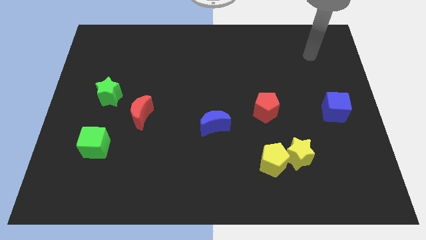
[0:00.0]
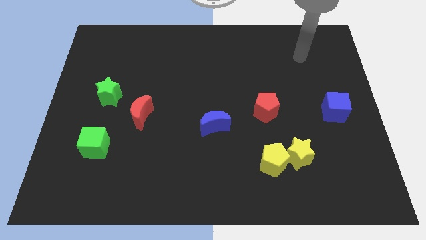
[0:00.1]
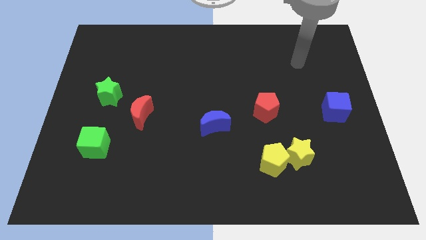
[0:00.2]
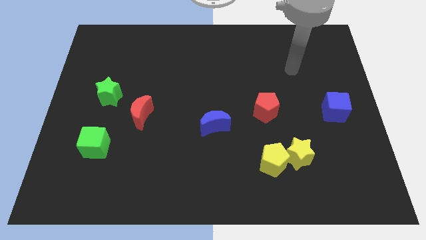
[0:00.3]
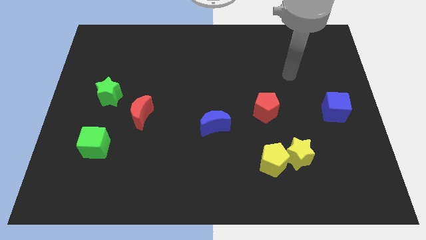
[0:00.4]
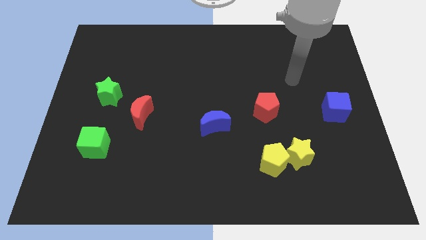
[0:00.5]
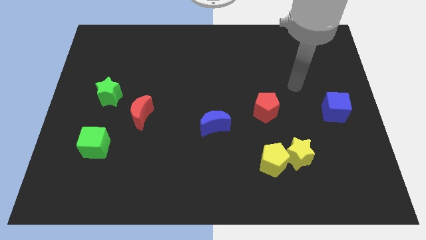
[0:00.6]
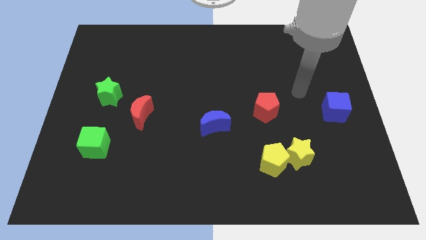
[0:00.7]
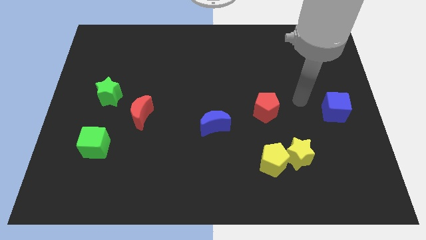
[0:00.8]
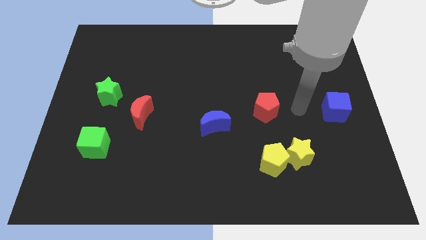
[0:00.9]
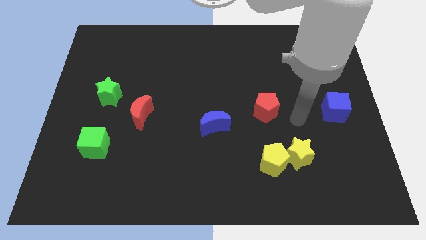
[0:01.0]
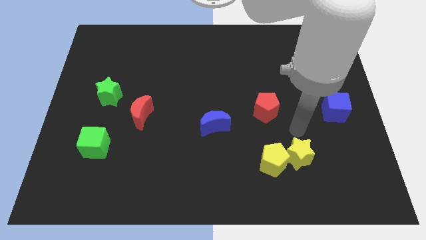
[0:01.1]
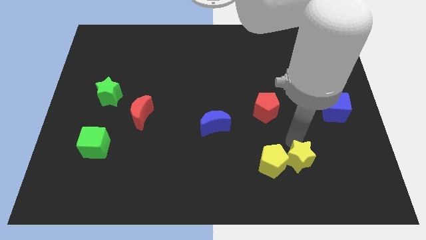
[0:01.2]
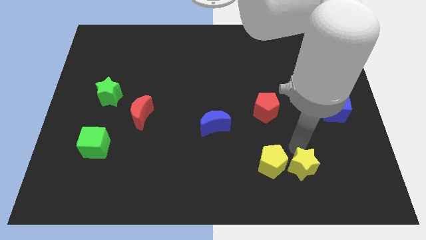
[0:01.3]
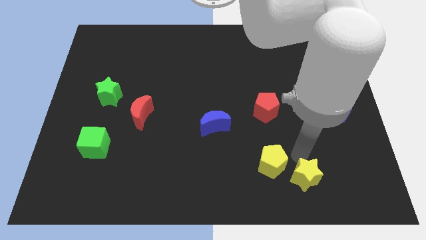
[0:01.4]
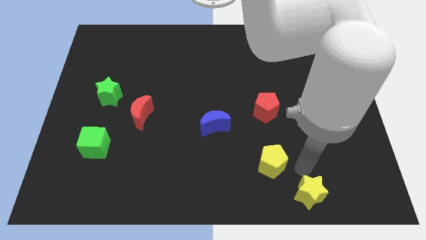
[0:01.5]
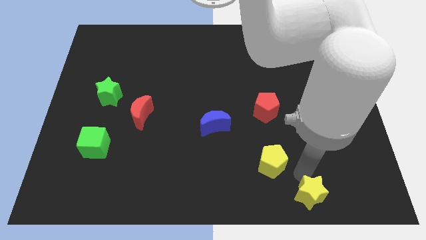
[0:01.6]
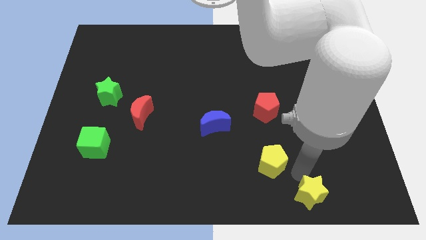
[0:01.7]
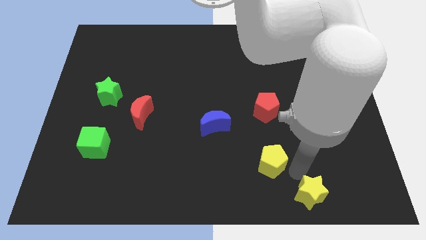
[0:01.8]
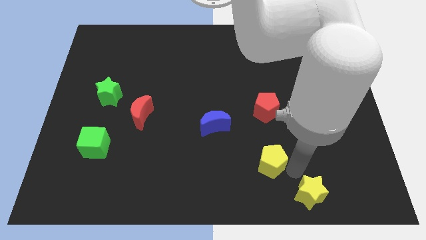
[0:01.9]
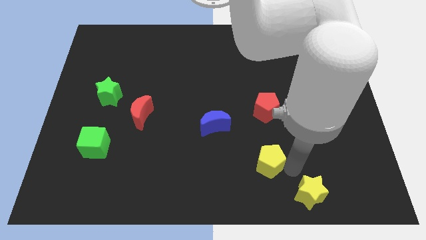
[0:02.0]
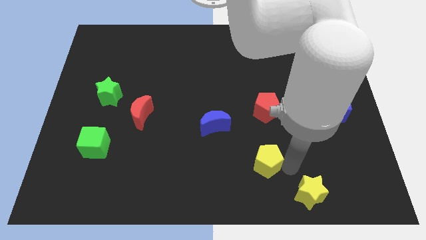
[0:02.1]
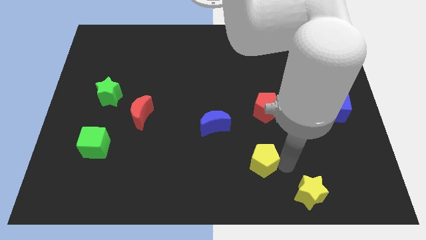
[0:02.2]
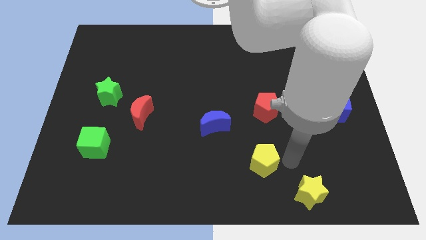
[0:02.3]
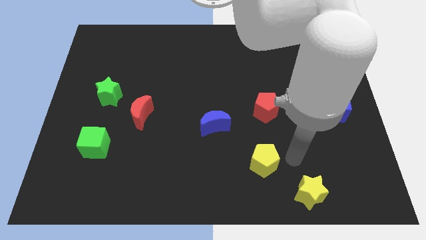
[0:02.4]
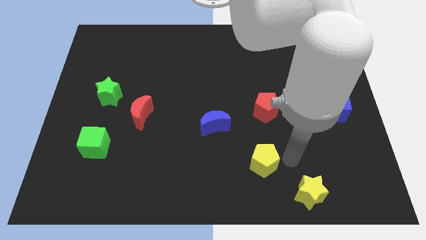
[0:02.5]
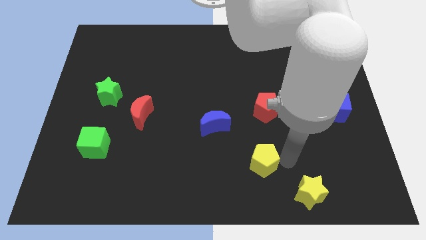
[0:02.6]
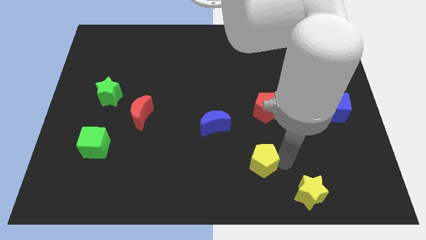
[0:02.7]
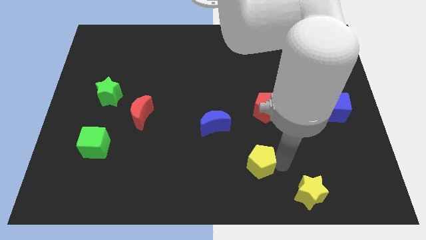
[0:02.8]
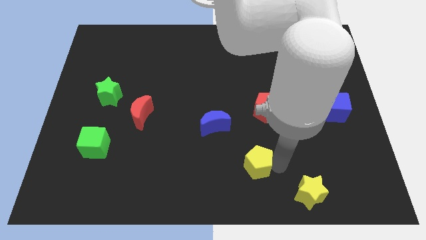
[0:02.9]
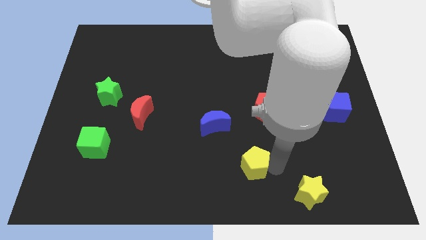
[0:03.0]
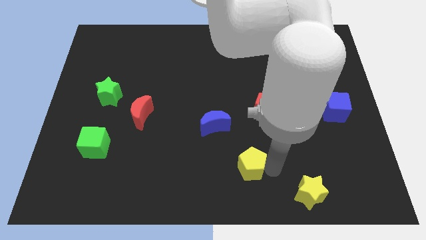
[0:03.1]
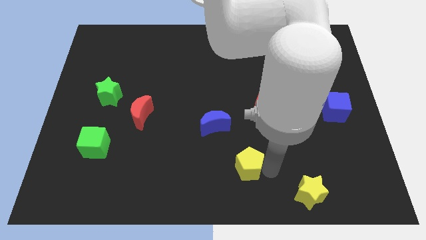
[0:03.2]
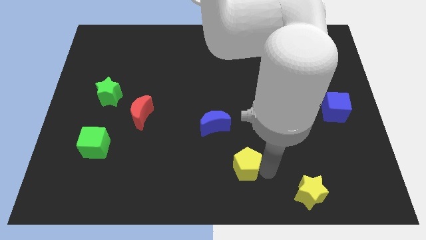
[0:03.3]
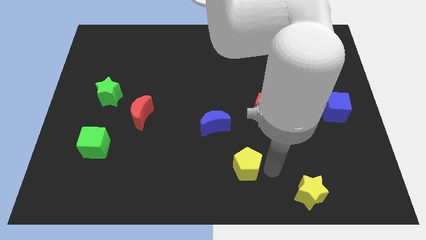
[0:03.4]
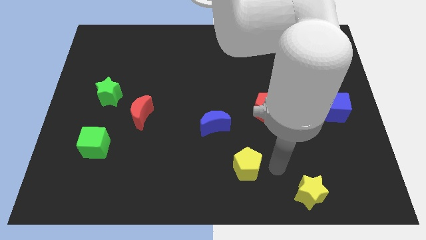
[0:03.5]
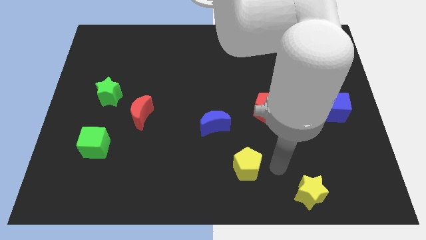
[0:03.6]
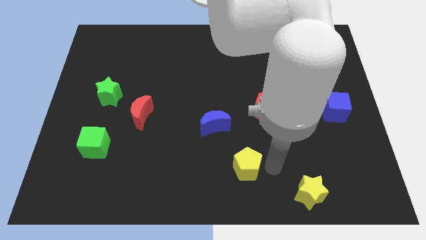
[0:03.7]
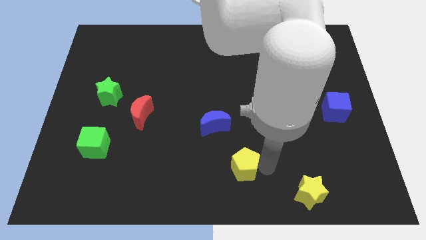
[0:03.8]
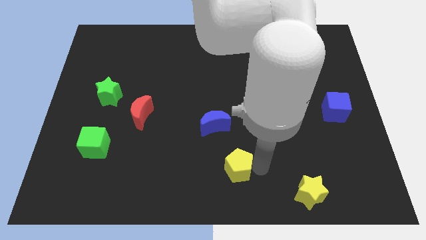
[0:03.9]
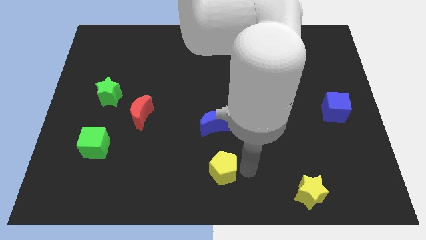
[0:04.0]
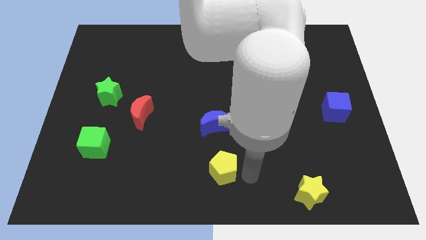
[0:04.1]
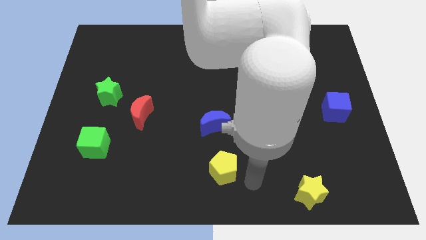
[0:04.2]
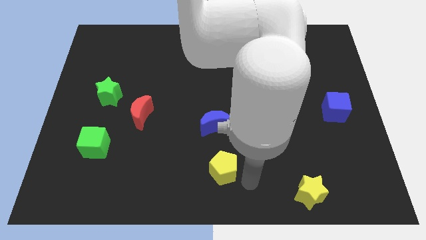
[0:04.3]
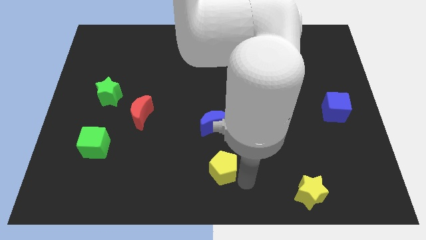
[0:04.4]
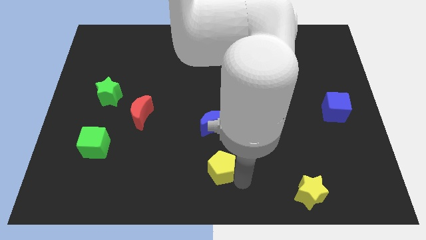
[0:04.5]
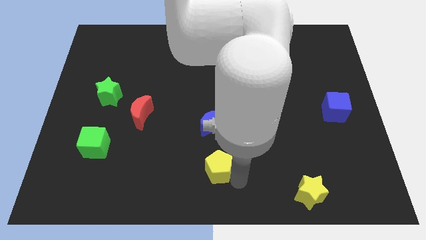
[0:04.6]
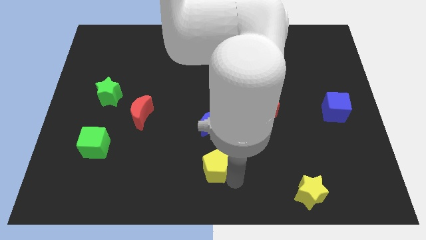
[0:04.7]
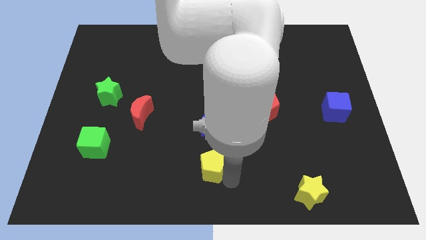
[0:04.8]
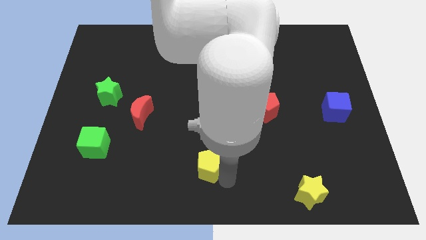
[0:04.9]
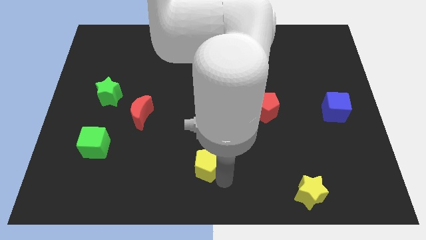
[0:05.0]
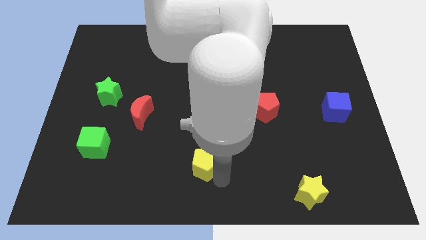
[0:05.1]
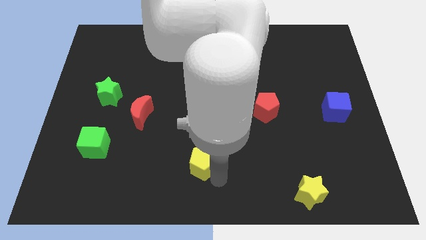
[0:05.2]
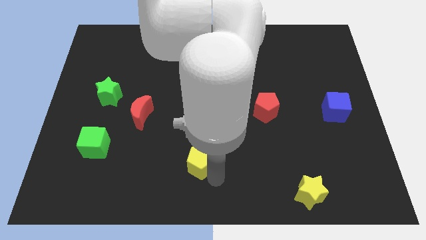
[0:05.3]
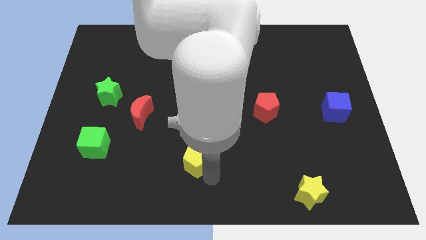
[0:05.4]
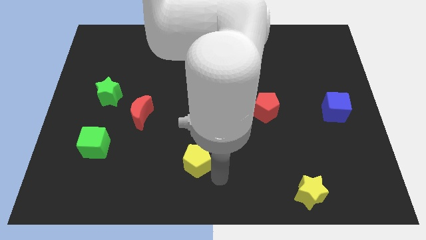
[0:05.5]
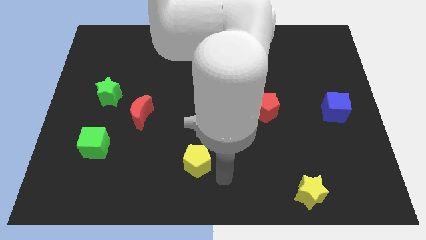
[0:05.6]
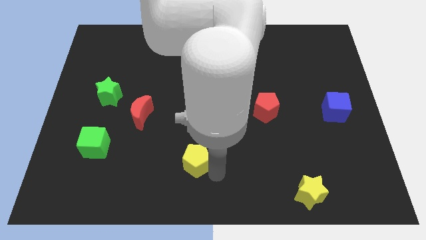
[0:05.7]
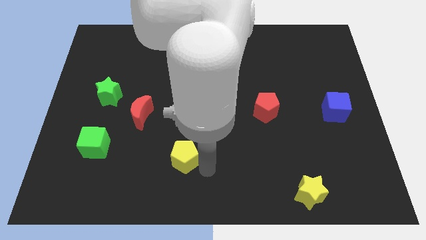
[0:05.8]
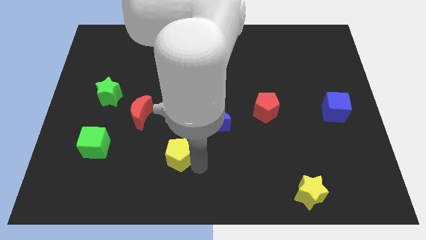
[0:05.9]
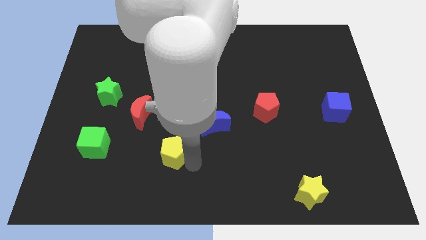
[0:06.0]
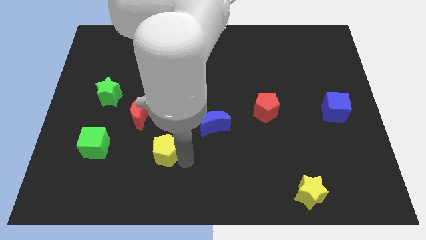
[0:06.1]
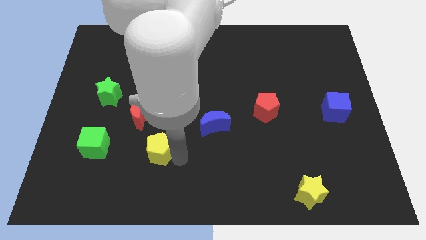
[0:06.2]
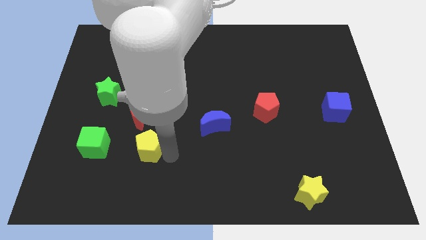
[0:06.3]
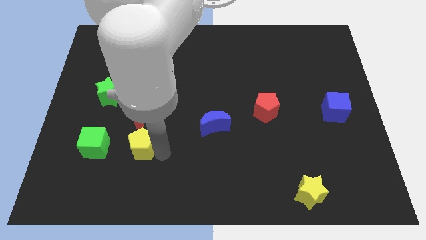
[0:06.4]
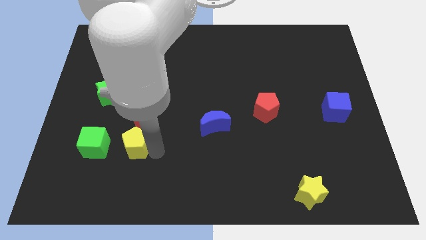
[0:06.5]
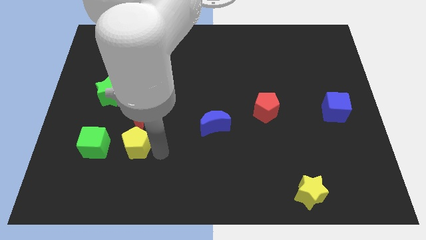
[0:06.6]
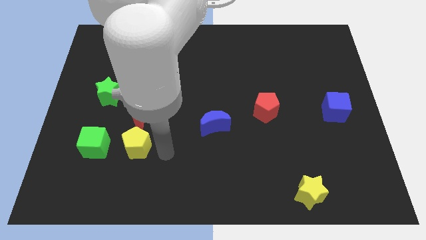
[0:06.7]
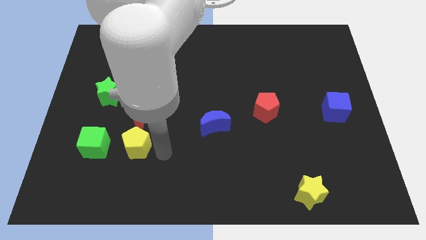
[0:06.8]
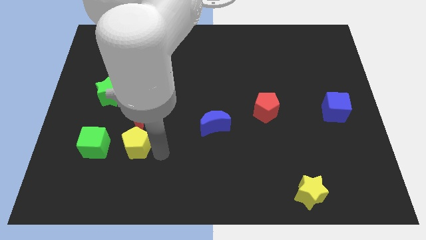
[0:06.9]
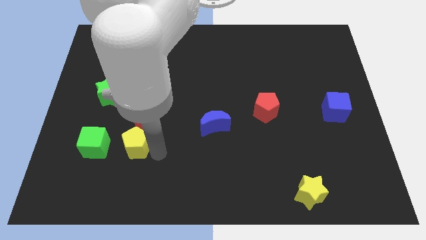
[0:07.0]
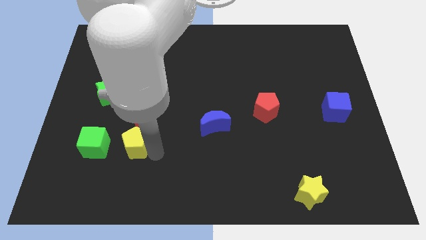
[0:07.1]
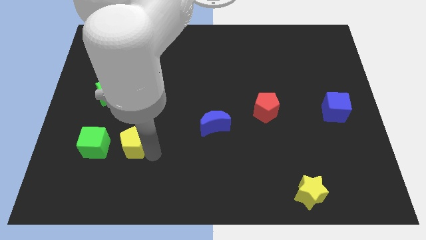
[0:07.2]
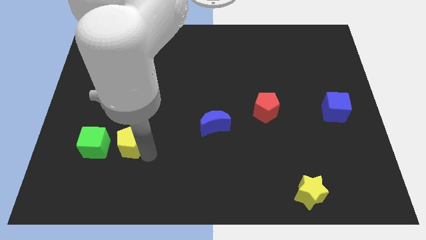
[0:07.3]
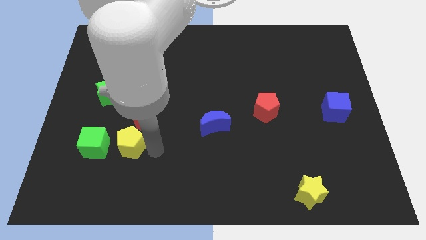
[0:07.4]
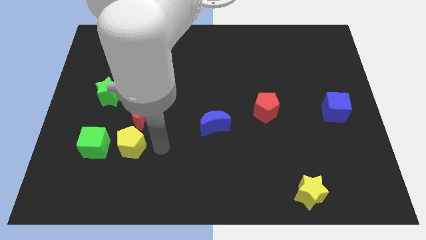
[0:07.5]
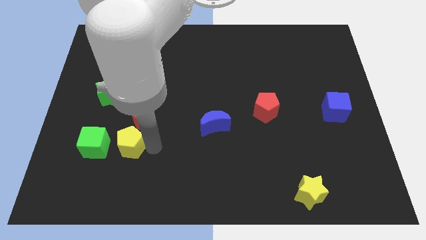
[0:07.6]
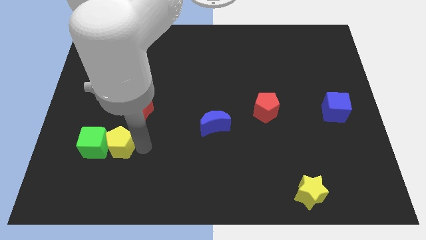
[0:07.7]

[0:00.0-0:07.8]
push the yellow pentagon close to the green cube
